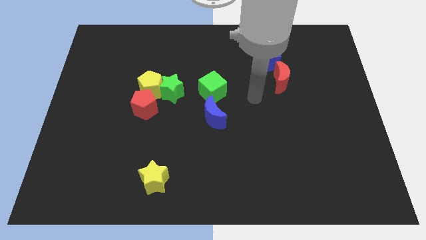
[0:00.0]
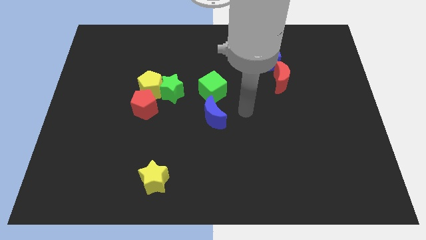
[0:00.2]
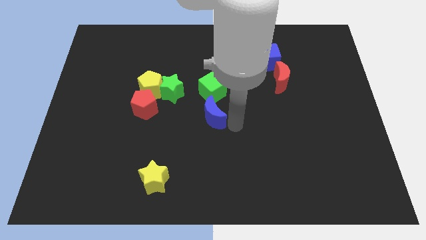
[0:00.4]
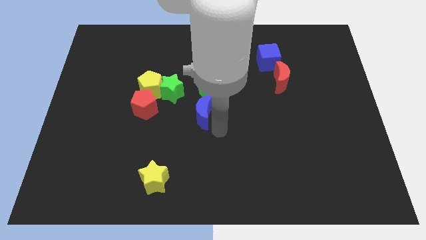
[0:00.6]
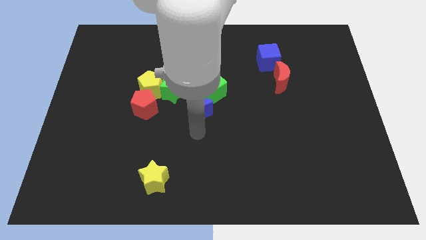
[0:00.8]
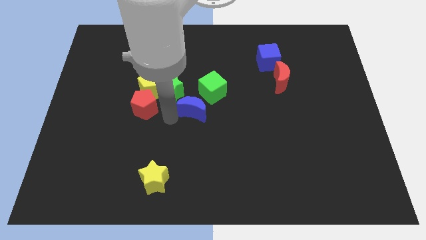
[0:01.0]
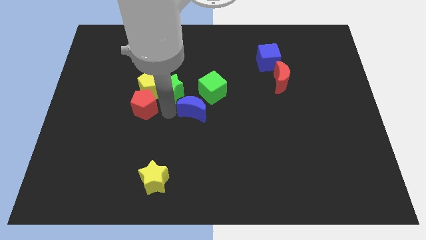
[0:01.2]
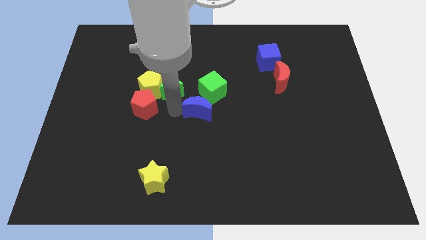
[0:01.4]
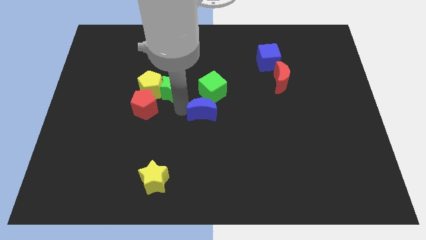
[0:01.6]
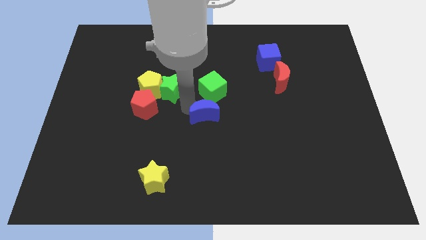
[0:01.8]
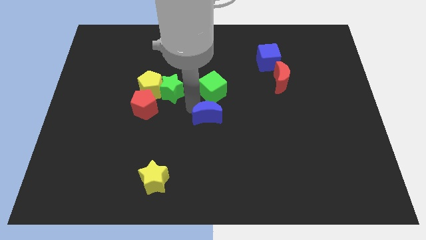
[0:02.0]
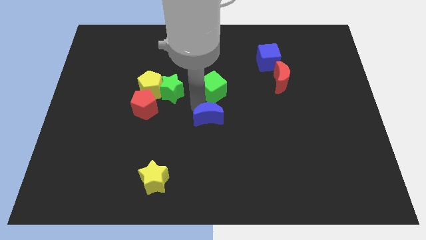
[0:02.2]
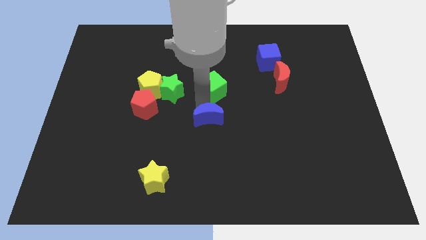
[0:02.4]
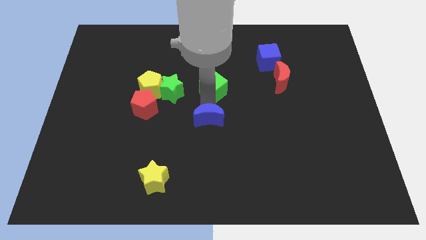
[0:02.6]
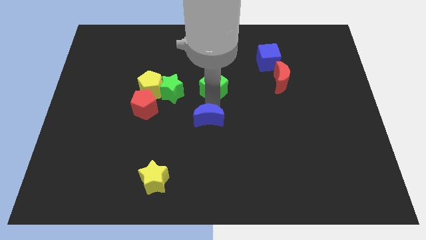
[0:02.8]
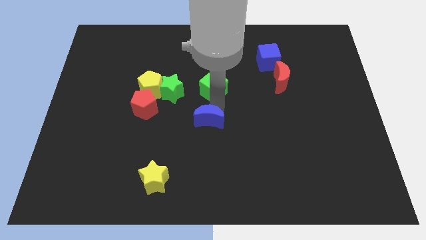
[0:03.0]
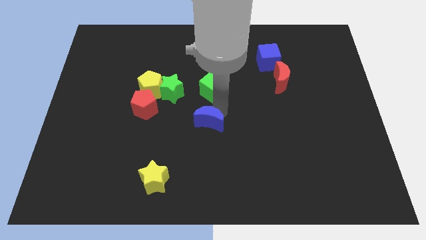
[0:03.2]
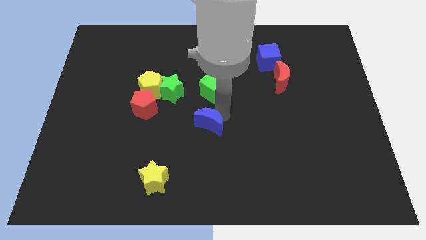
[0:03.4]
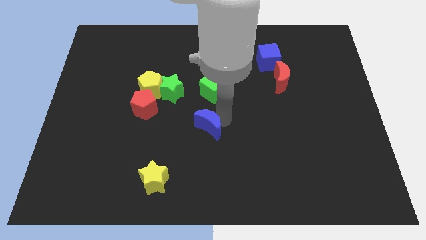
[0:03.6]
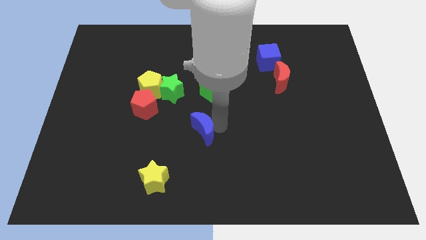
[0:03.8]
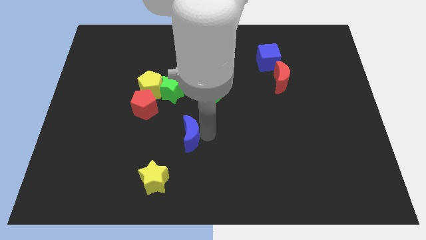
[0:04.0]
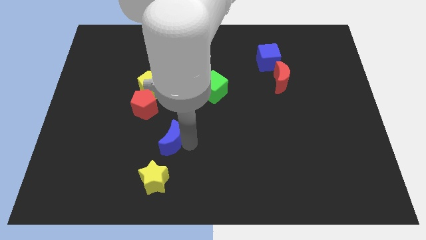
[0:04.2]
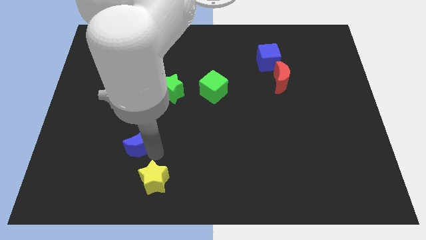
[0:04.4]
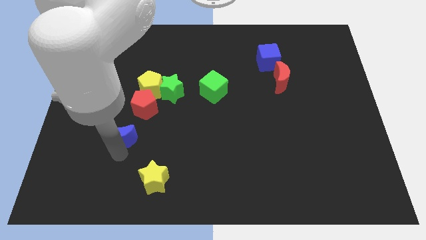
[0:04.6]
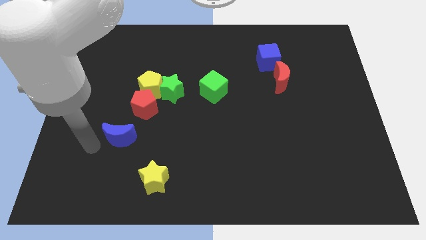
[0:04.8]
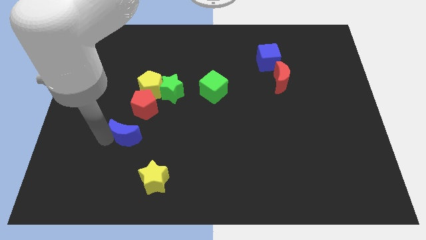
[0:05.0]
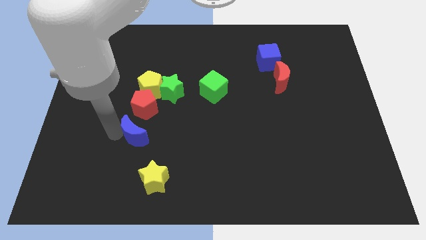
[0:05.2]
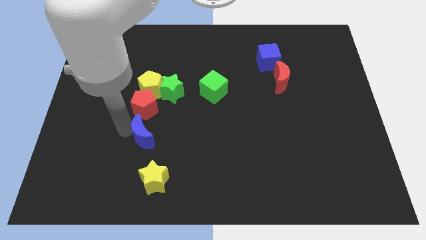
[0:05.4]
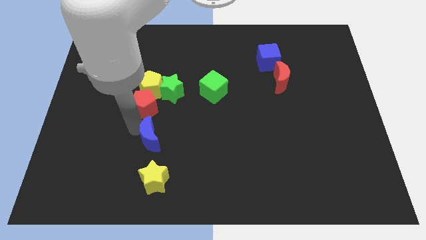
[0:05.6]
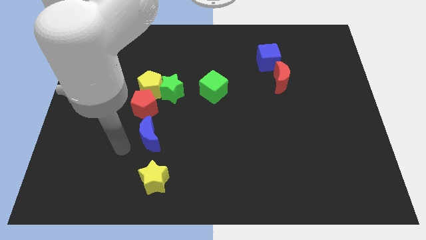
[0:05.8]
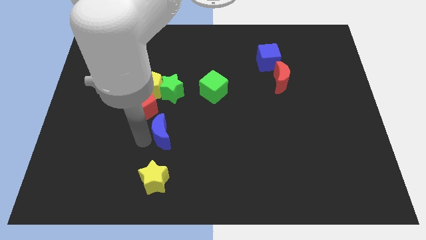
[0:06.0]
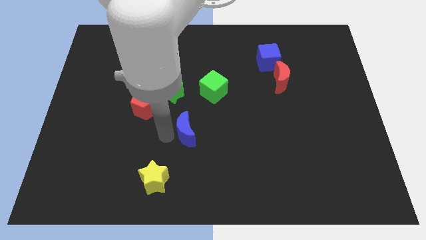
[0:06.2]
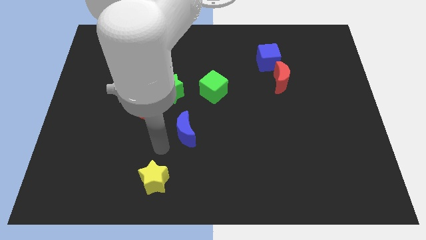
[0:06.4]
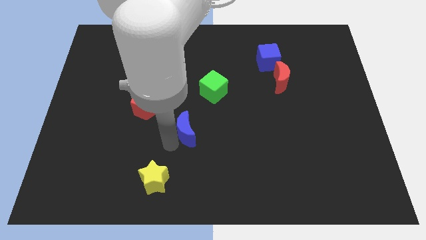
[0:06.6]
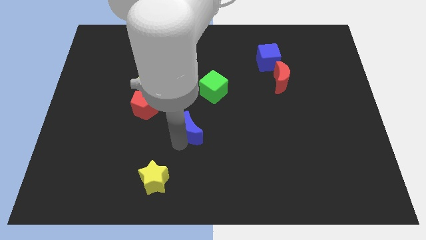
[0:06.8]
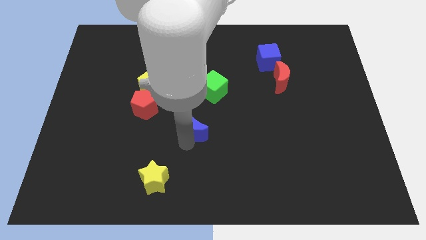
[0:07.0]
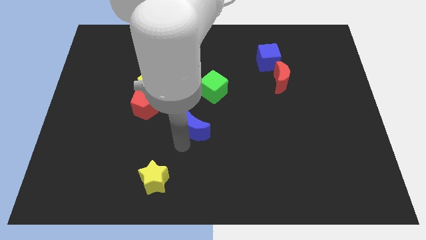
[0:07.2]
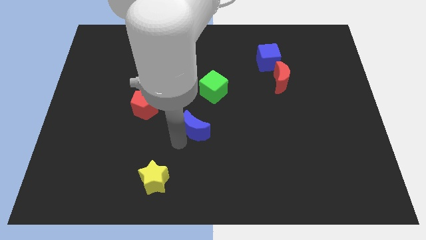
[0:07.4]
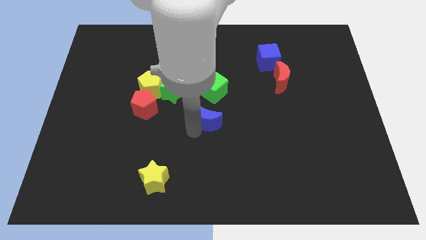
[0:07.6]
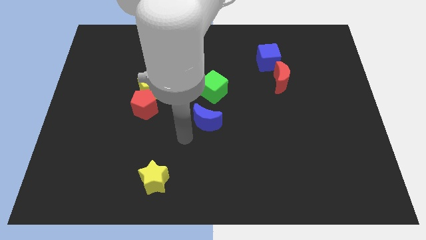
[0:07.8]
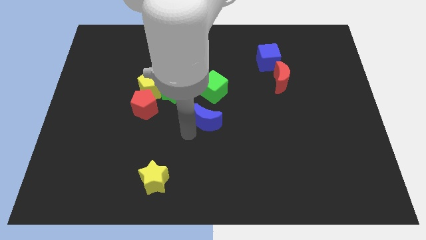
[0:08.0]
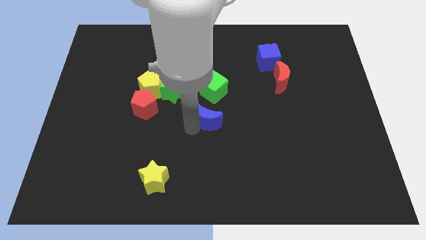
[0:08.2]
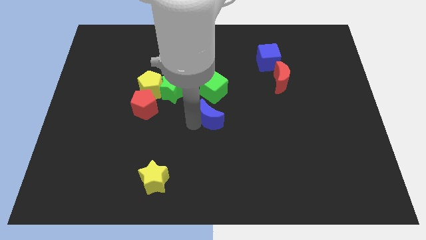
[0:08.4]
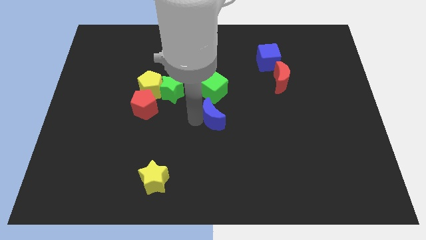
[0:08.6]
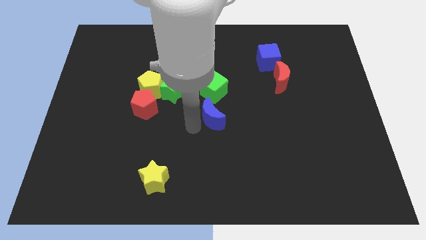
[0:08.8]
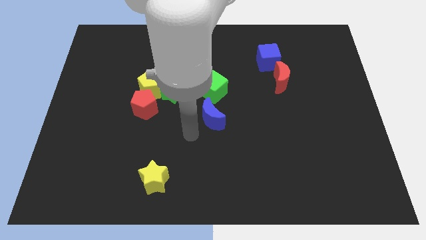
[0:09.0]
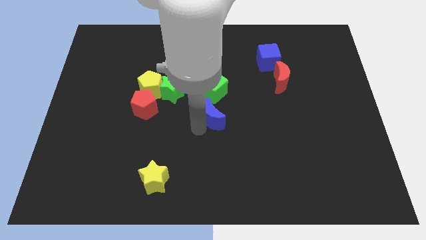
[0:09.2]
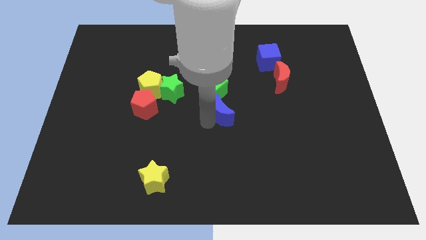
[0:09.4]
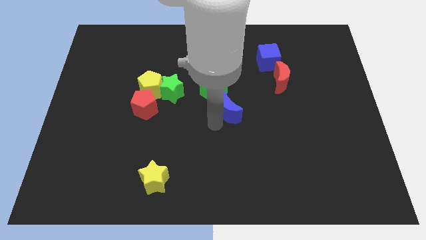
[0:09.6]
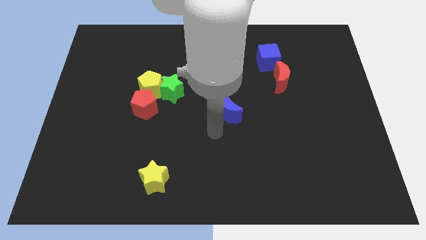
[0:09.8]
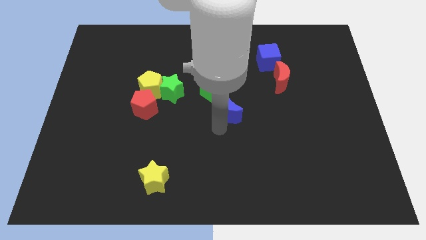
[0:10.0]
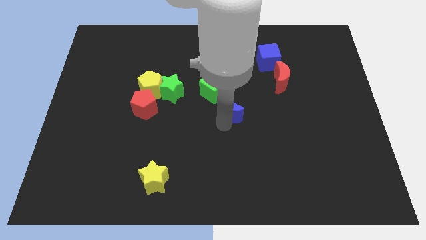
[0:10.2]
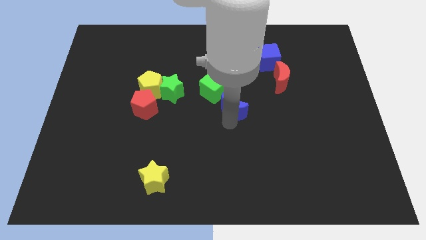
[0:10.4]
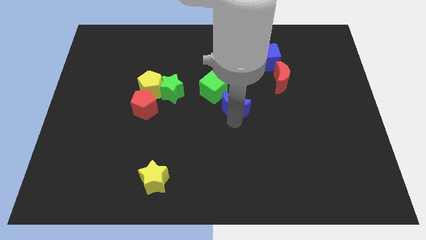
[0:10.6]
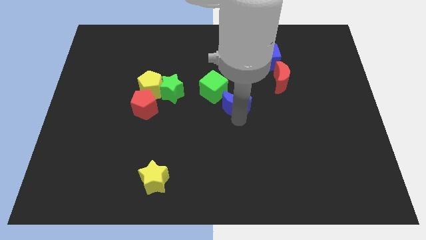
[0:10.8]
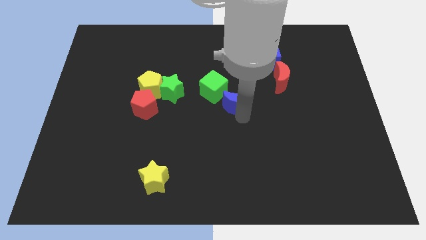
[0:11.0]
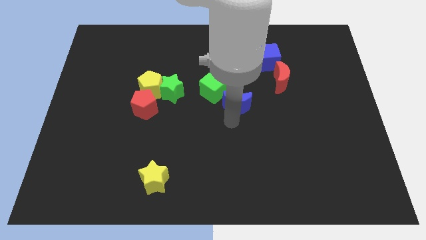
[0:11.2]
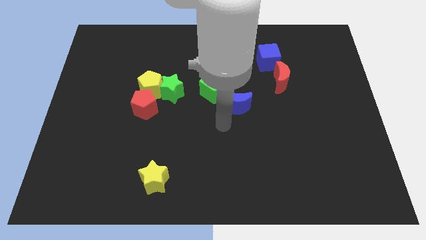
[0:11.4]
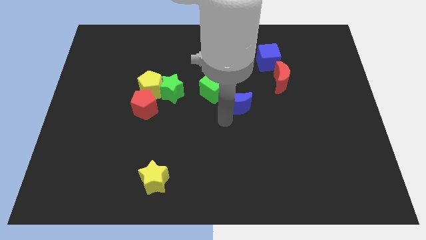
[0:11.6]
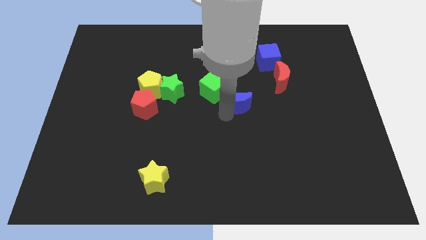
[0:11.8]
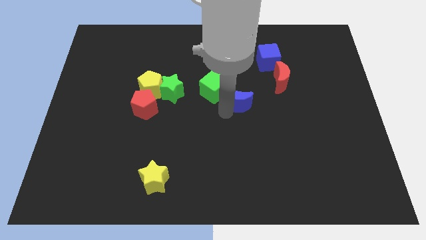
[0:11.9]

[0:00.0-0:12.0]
move the blue moon up and then right a bit

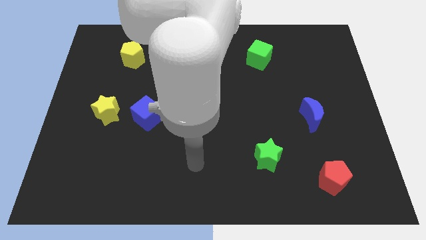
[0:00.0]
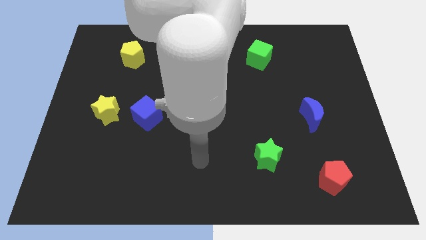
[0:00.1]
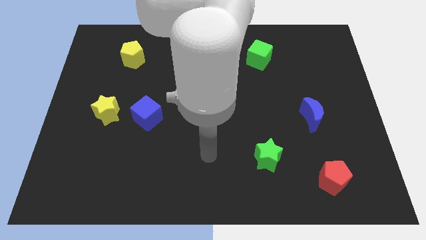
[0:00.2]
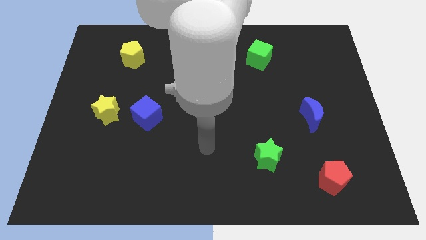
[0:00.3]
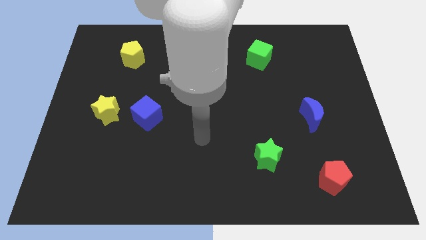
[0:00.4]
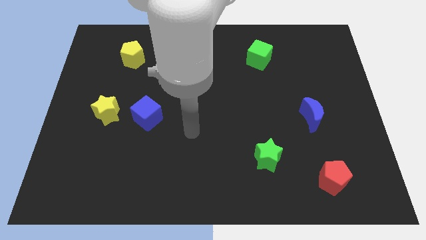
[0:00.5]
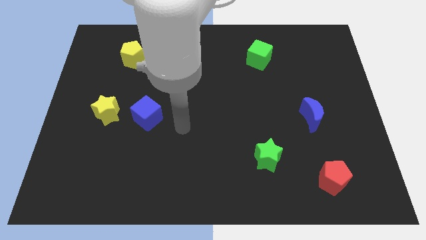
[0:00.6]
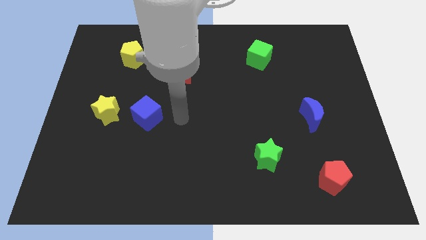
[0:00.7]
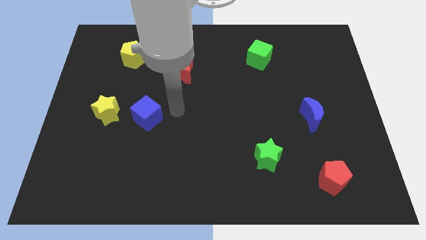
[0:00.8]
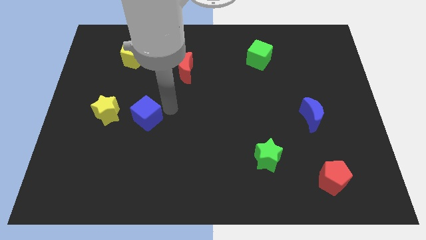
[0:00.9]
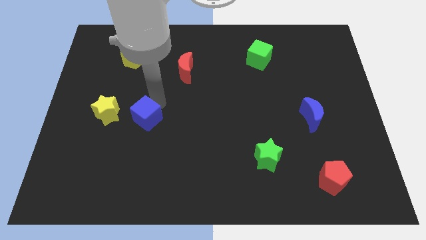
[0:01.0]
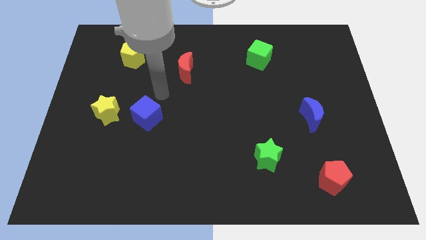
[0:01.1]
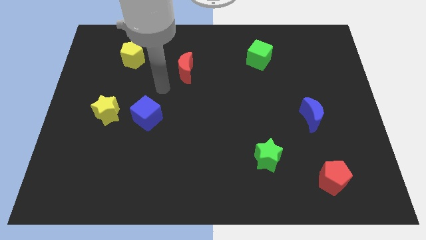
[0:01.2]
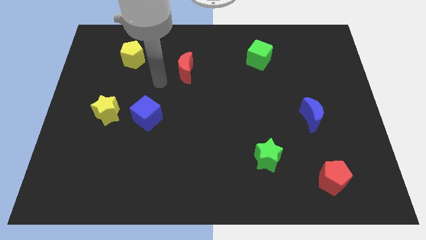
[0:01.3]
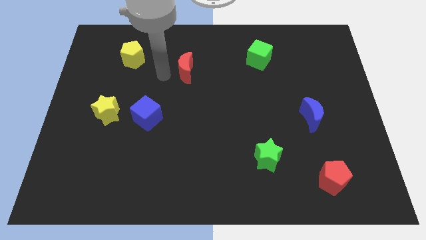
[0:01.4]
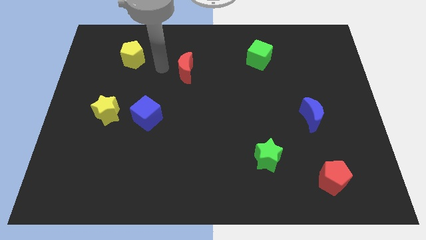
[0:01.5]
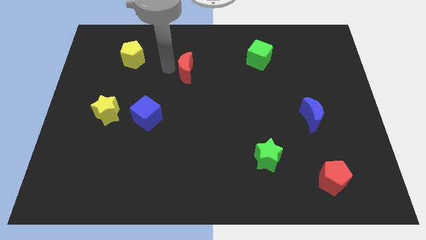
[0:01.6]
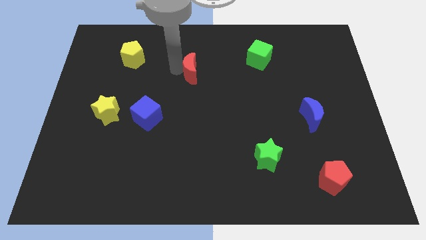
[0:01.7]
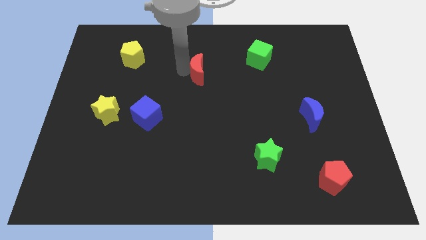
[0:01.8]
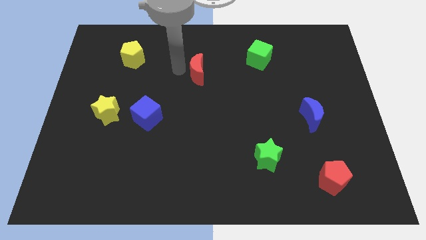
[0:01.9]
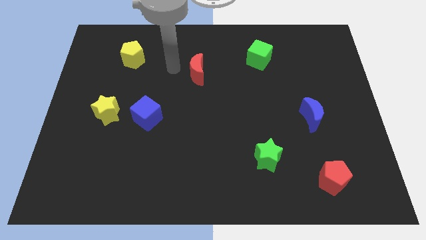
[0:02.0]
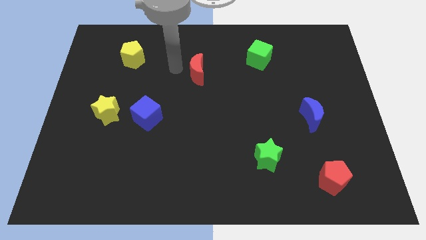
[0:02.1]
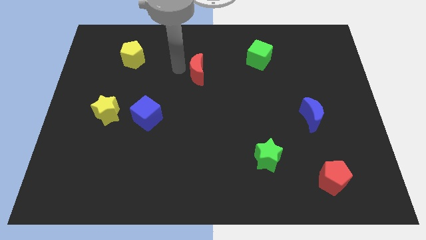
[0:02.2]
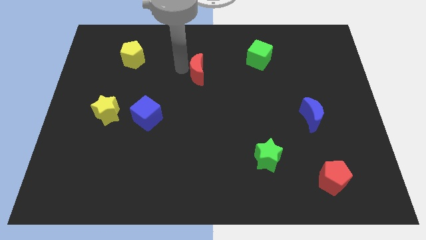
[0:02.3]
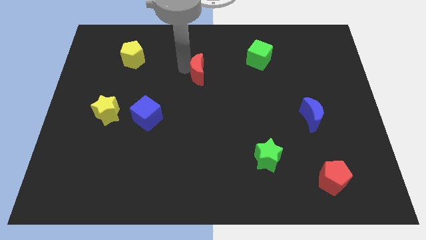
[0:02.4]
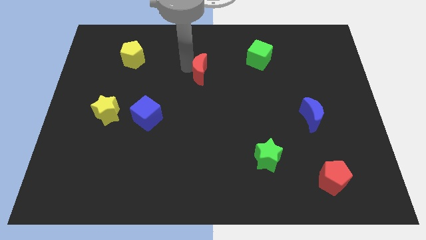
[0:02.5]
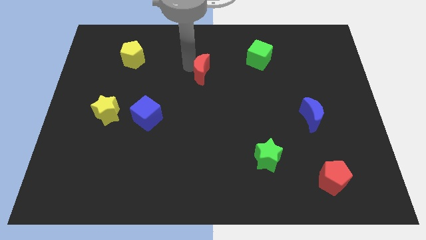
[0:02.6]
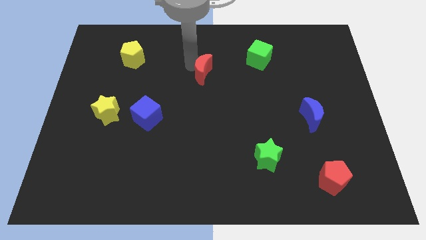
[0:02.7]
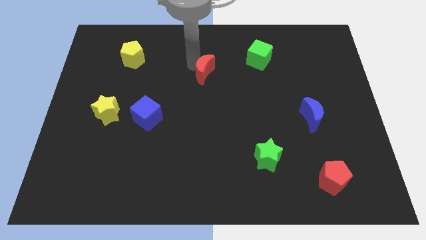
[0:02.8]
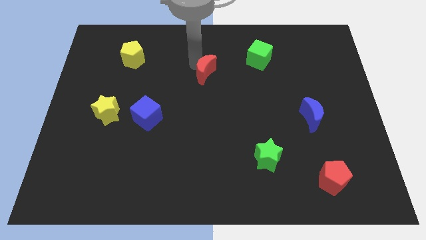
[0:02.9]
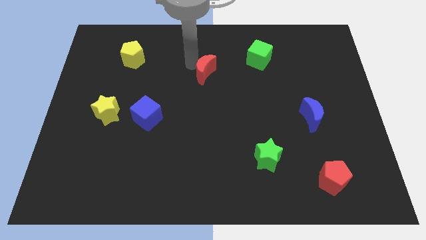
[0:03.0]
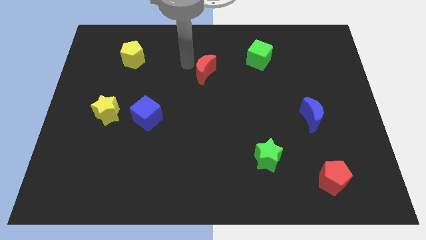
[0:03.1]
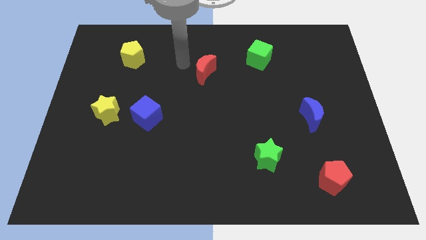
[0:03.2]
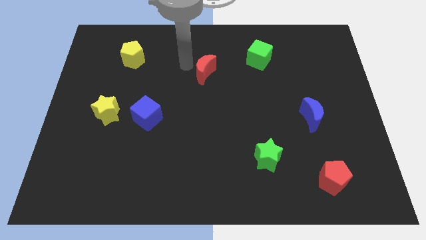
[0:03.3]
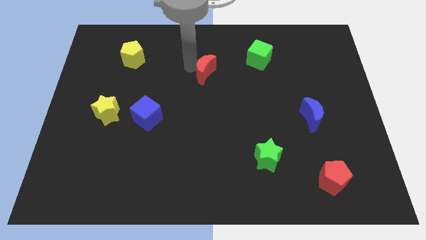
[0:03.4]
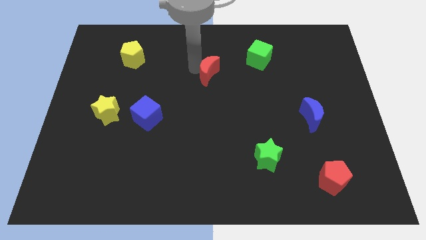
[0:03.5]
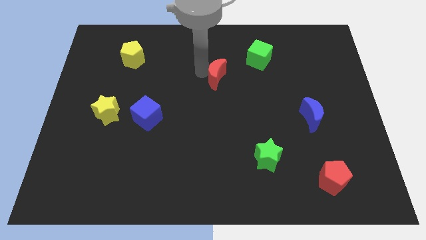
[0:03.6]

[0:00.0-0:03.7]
push the red moon to the right a little
